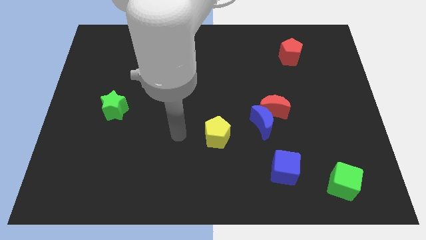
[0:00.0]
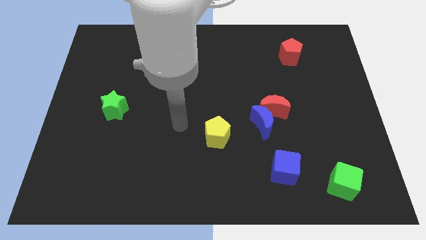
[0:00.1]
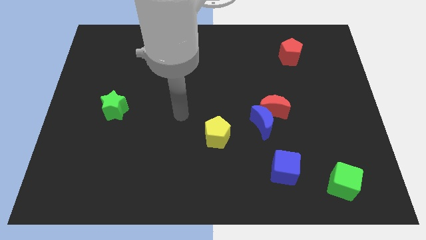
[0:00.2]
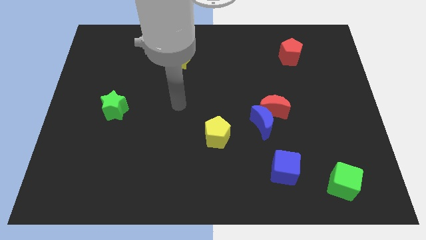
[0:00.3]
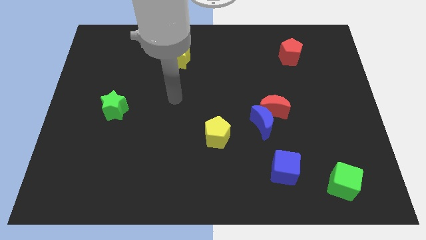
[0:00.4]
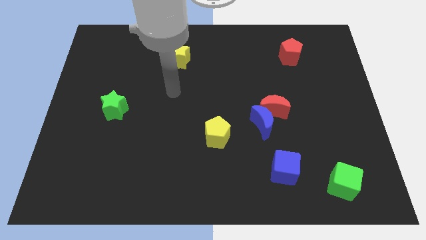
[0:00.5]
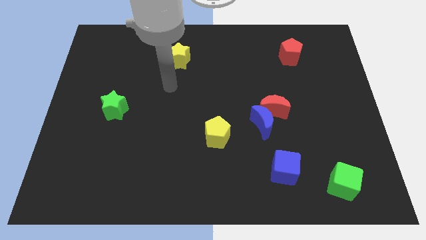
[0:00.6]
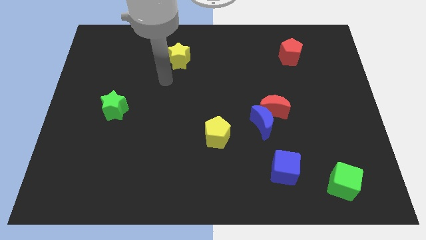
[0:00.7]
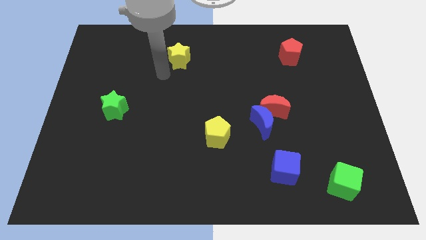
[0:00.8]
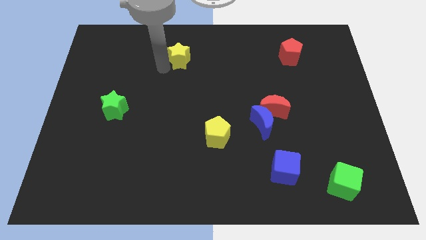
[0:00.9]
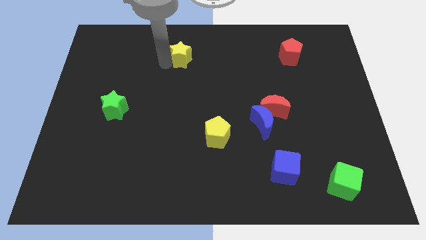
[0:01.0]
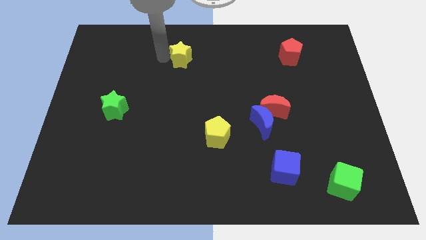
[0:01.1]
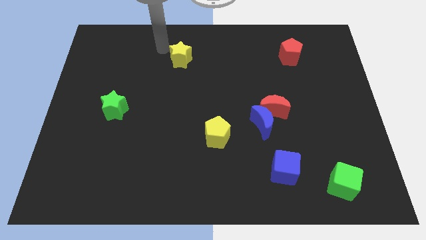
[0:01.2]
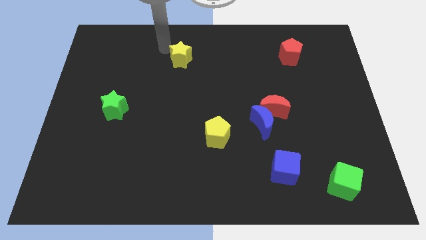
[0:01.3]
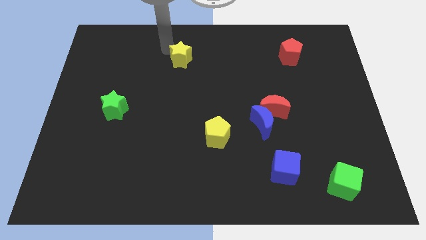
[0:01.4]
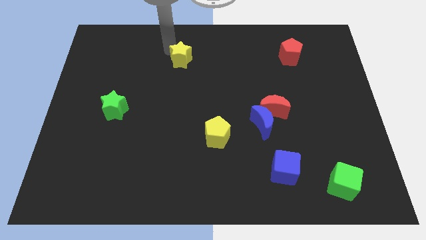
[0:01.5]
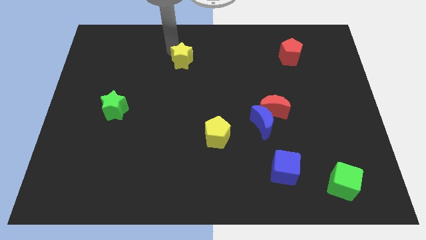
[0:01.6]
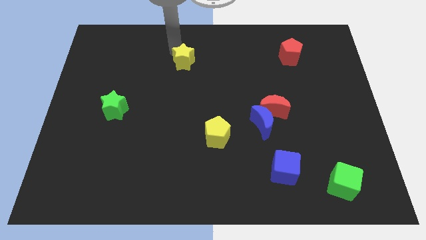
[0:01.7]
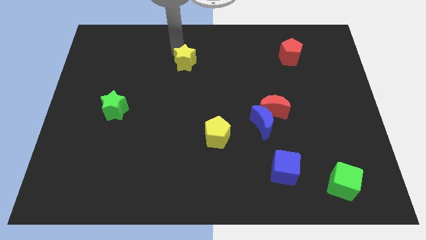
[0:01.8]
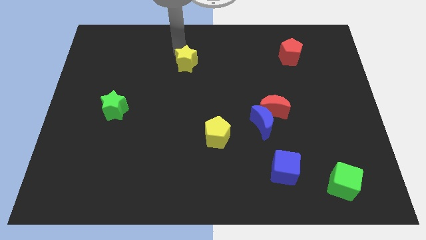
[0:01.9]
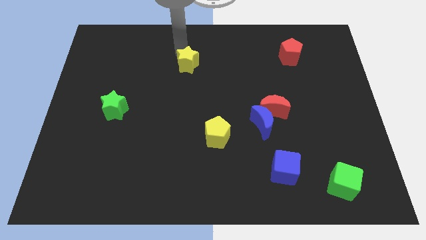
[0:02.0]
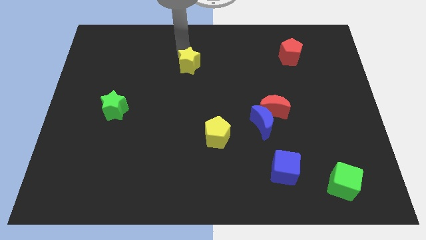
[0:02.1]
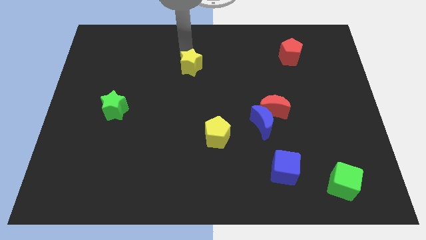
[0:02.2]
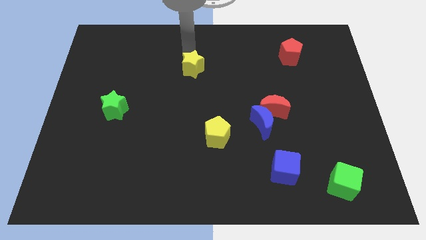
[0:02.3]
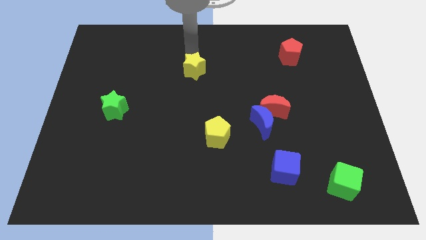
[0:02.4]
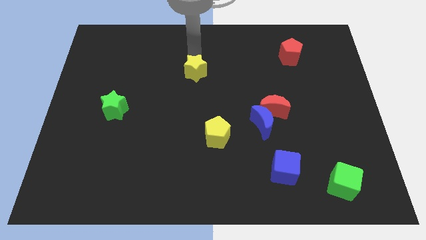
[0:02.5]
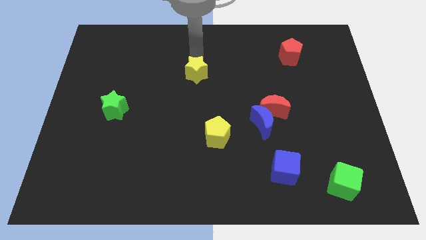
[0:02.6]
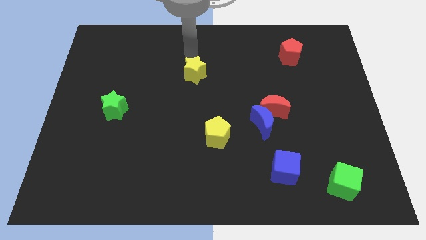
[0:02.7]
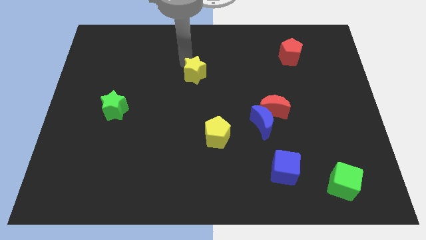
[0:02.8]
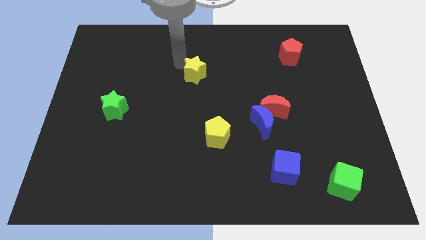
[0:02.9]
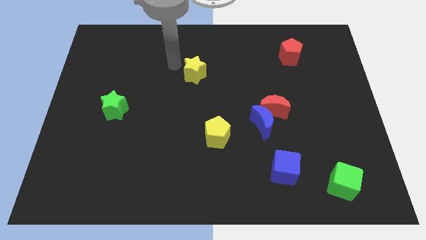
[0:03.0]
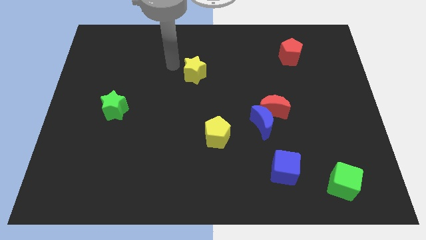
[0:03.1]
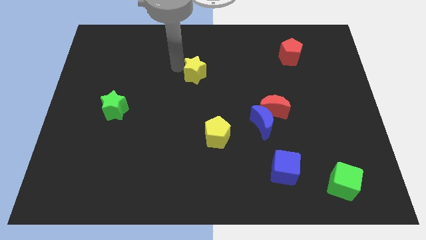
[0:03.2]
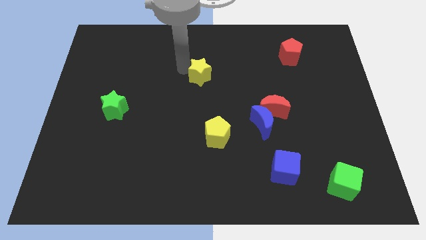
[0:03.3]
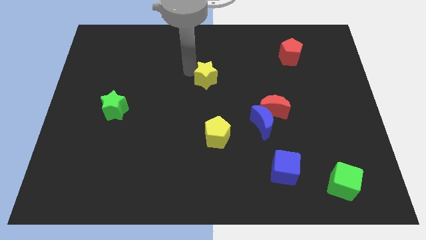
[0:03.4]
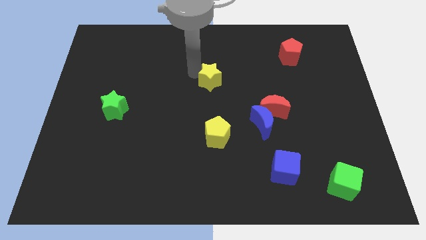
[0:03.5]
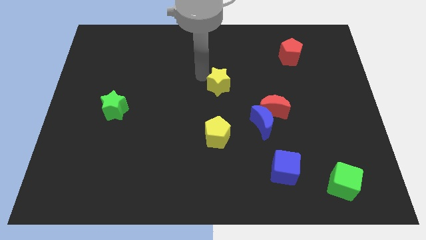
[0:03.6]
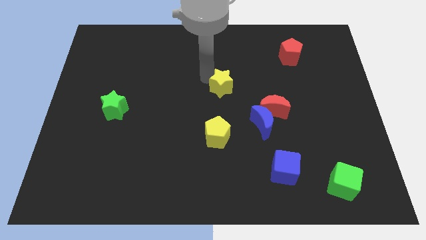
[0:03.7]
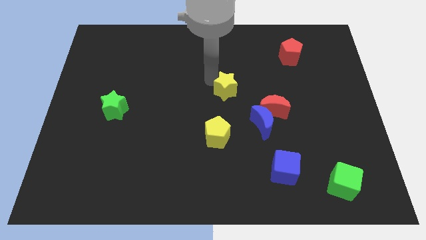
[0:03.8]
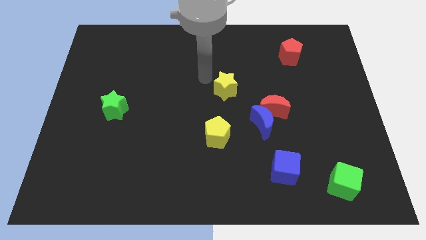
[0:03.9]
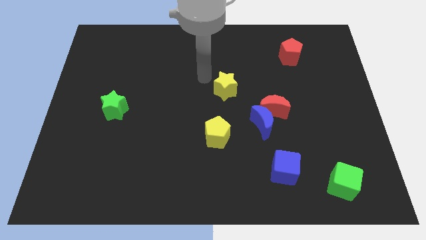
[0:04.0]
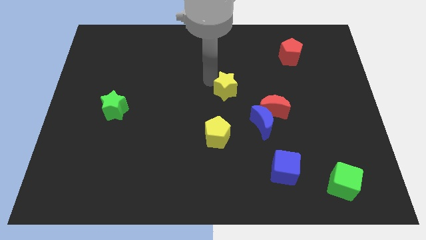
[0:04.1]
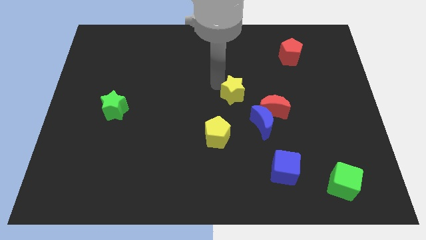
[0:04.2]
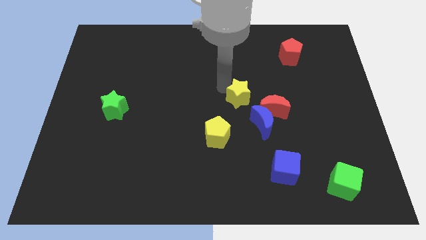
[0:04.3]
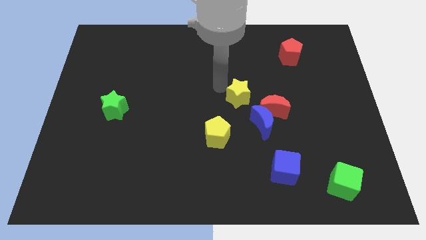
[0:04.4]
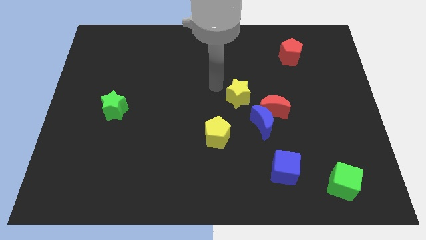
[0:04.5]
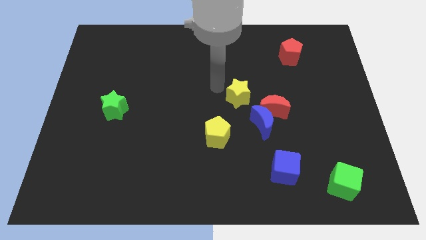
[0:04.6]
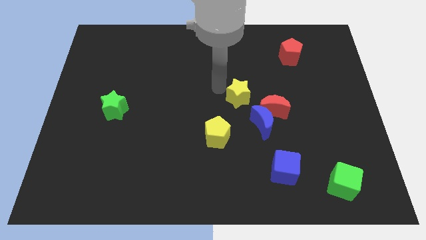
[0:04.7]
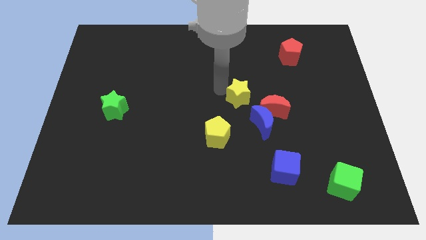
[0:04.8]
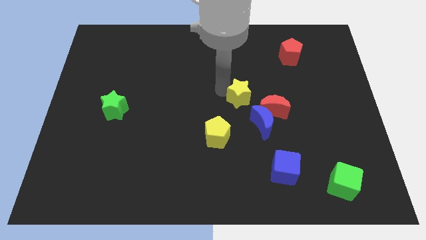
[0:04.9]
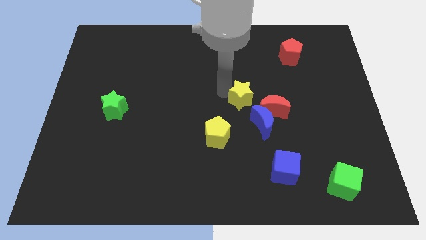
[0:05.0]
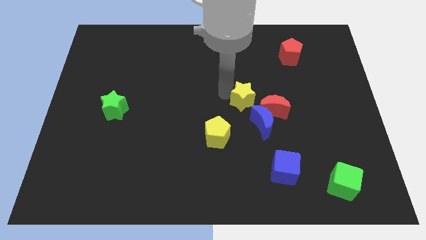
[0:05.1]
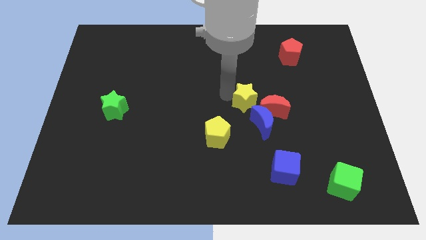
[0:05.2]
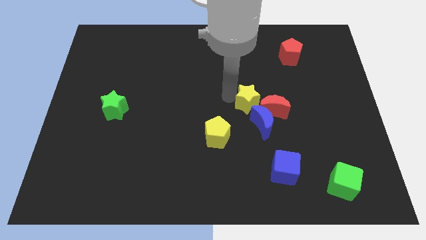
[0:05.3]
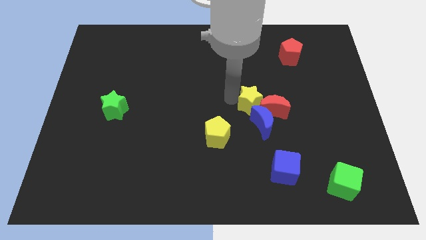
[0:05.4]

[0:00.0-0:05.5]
move the yellow star next to the red moon

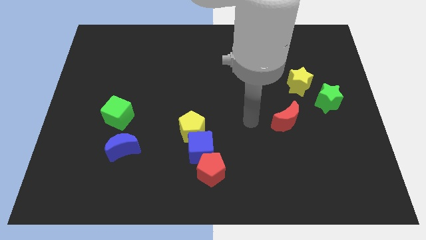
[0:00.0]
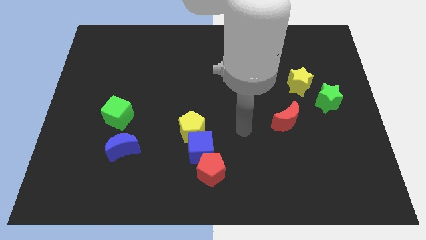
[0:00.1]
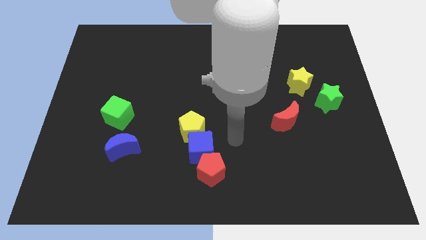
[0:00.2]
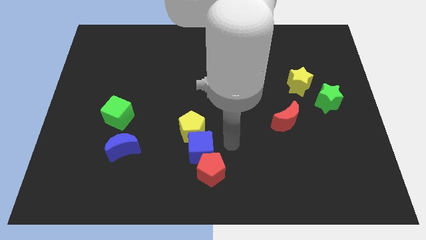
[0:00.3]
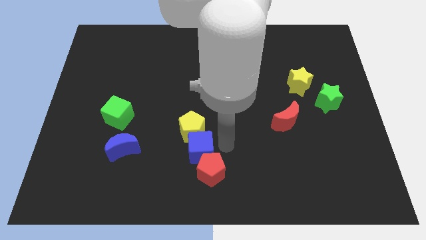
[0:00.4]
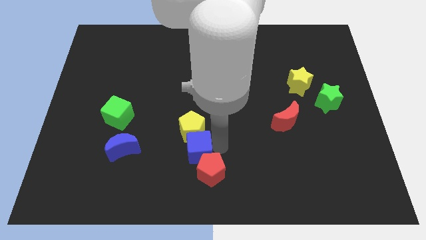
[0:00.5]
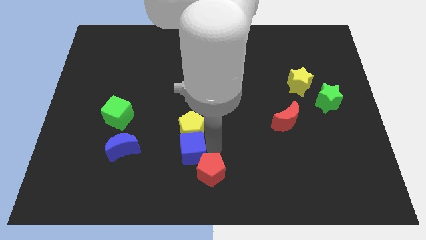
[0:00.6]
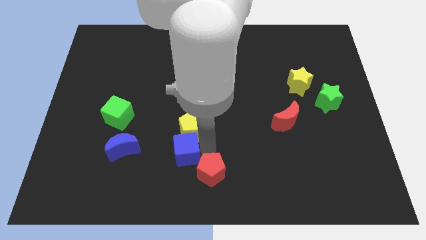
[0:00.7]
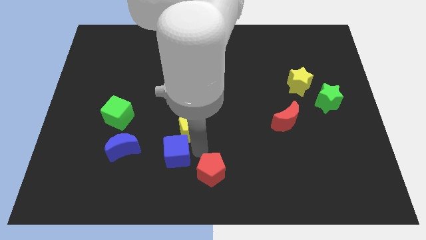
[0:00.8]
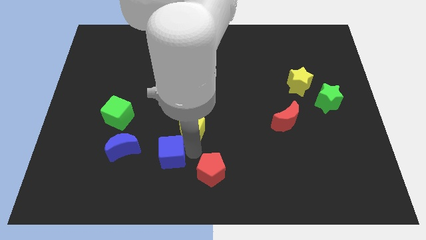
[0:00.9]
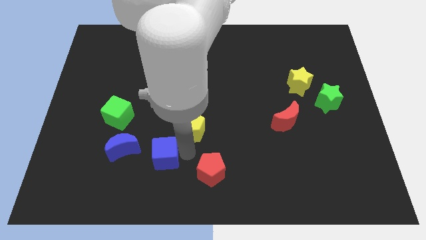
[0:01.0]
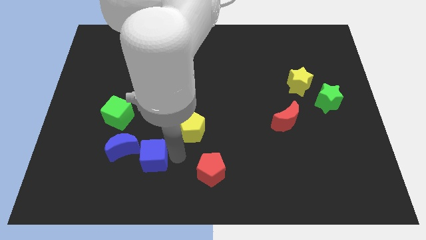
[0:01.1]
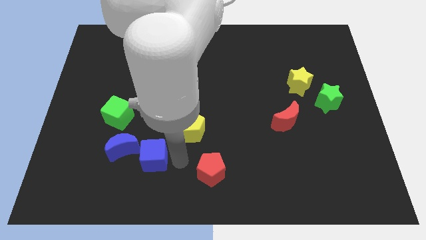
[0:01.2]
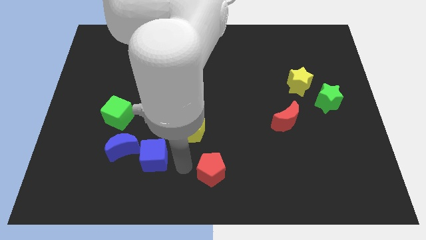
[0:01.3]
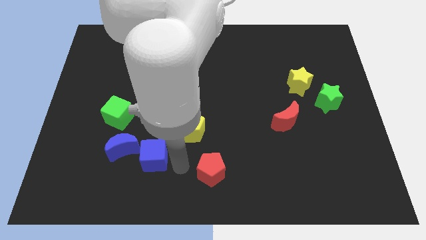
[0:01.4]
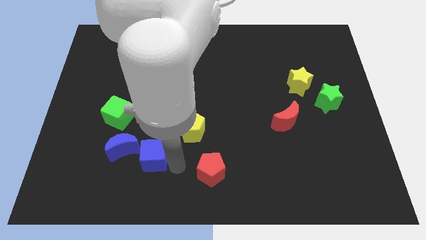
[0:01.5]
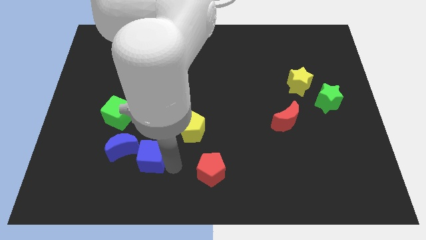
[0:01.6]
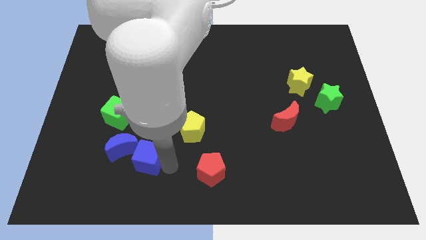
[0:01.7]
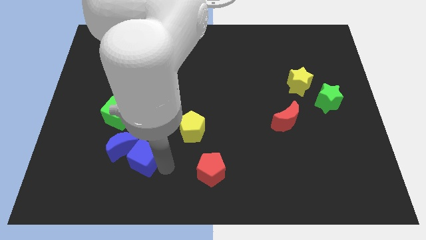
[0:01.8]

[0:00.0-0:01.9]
move the blue cube towards the blue moon

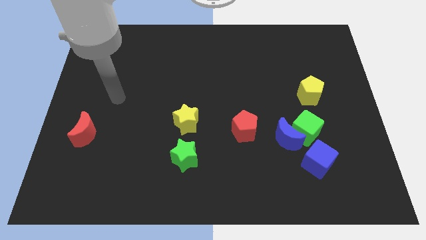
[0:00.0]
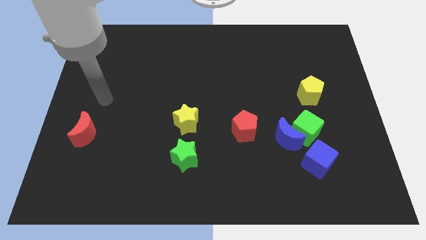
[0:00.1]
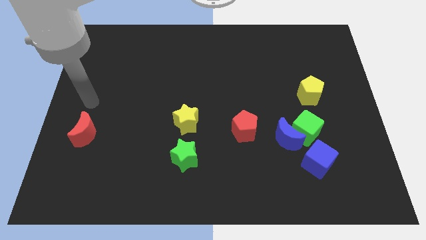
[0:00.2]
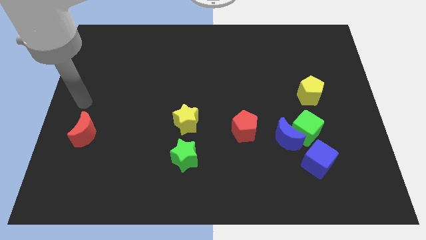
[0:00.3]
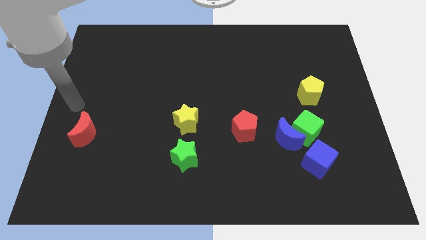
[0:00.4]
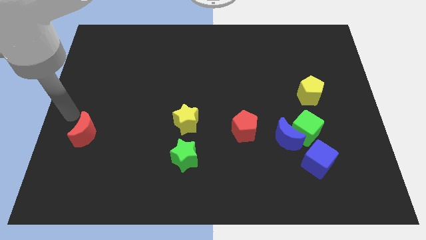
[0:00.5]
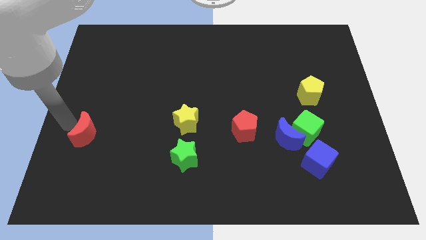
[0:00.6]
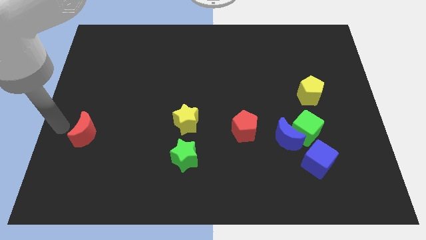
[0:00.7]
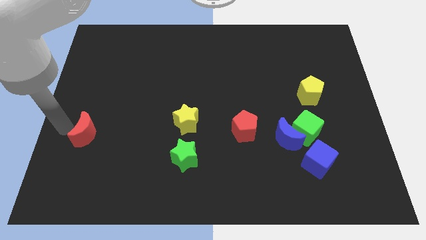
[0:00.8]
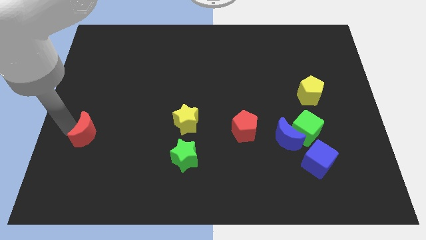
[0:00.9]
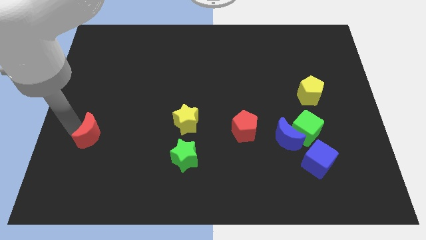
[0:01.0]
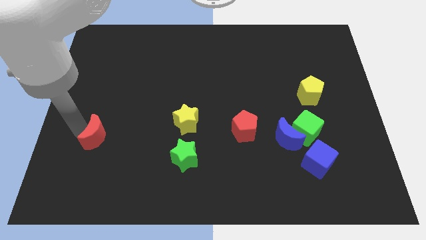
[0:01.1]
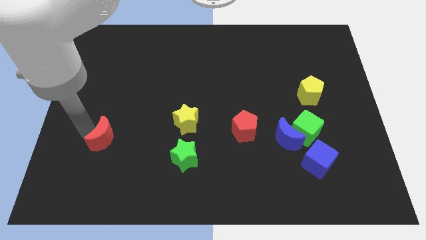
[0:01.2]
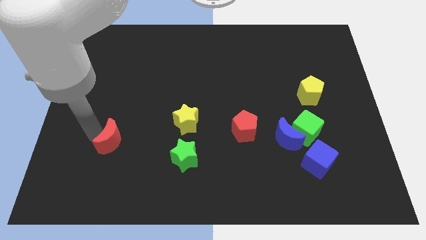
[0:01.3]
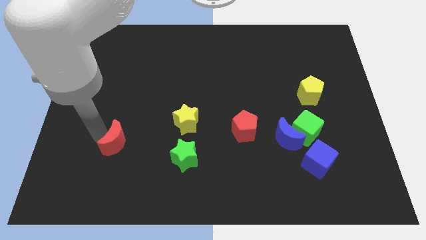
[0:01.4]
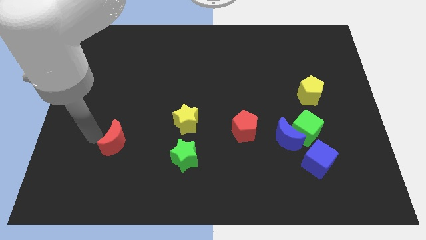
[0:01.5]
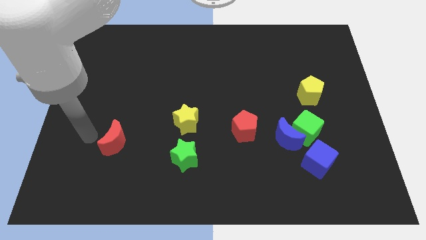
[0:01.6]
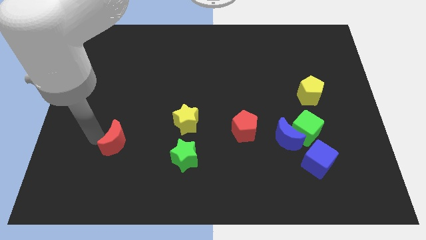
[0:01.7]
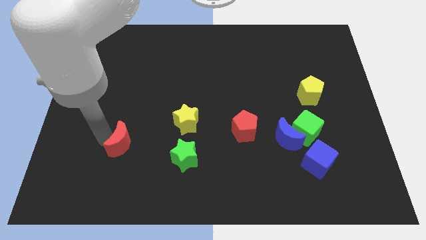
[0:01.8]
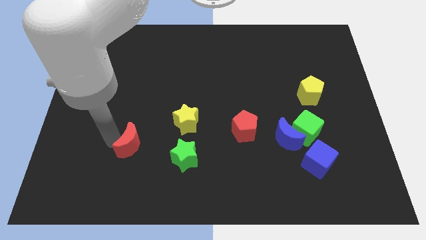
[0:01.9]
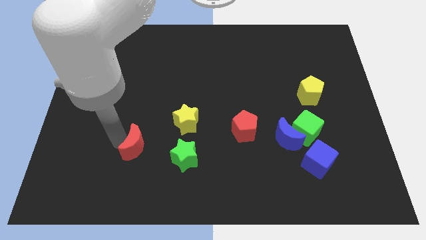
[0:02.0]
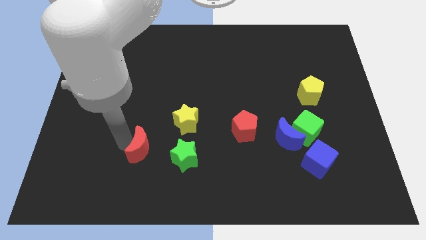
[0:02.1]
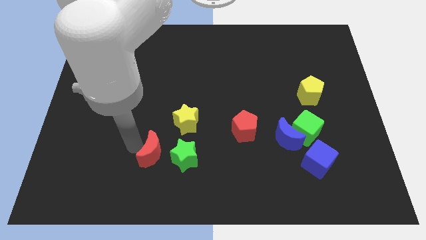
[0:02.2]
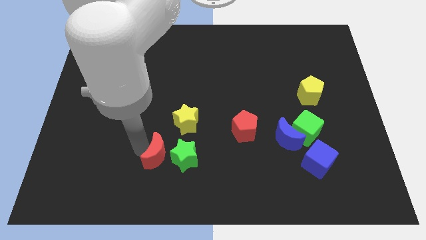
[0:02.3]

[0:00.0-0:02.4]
put the red moon next to the green star
